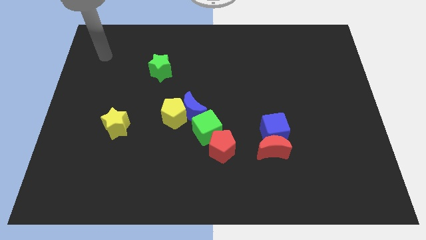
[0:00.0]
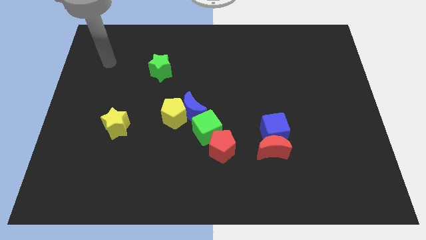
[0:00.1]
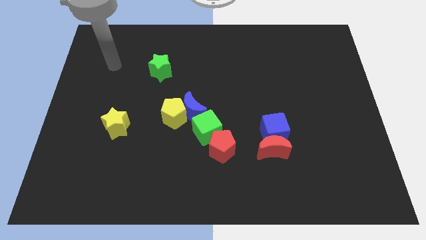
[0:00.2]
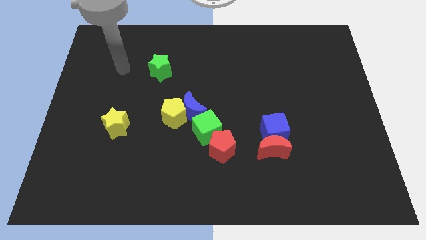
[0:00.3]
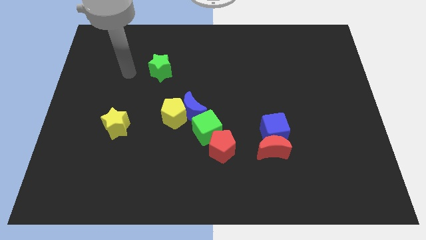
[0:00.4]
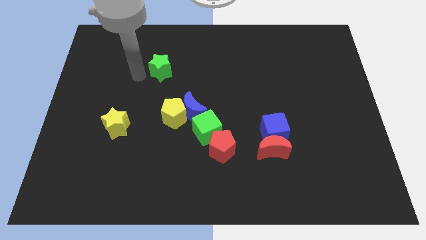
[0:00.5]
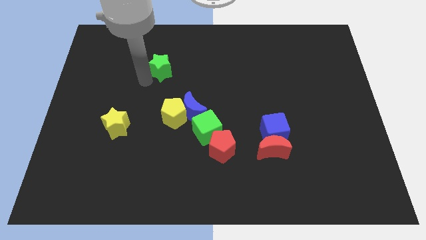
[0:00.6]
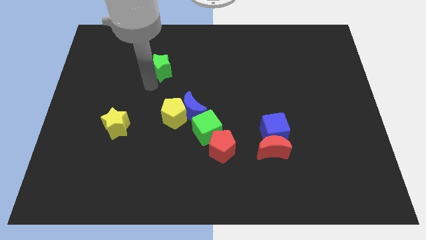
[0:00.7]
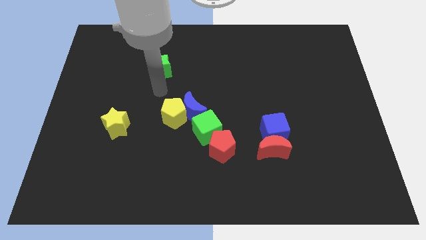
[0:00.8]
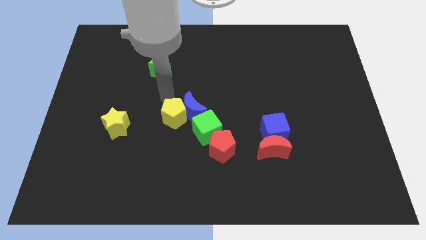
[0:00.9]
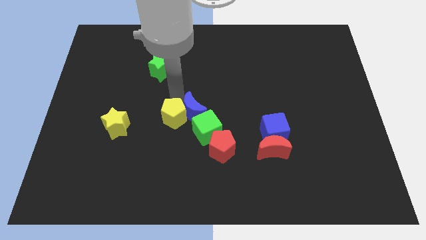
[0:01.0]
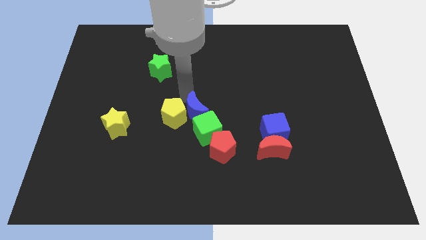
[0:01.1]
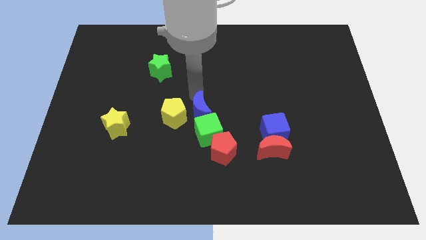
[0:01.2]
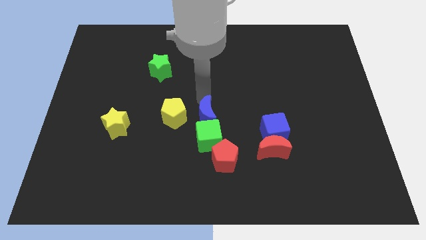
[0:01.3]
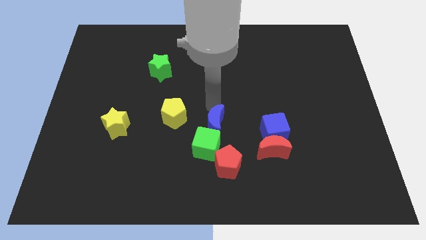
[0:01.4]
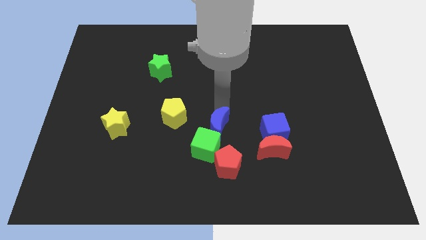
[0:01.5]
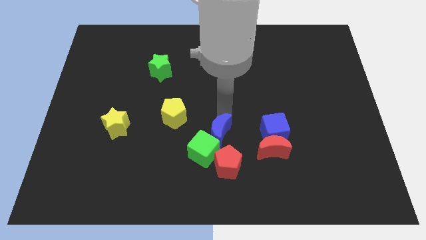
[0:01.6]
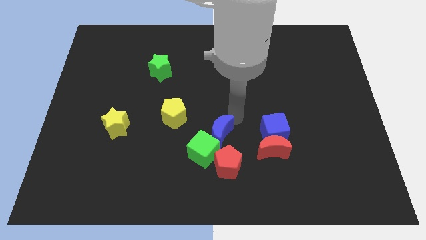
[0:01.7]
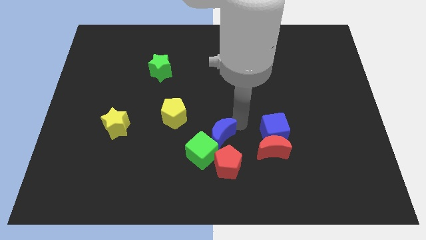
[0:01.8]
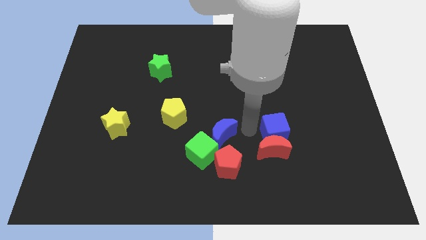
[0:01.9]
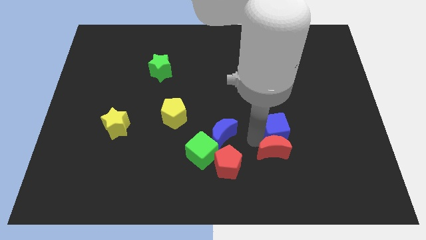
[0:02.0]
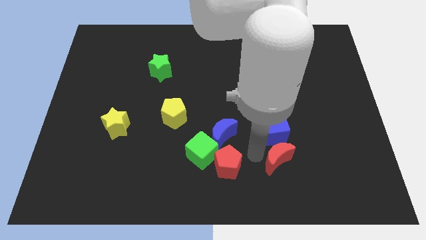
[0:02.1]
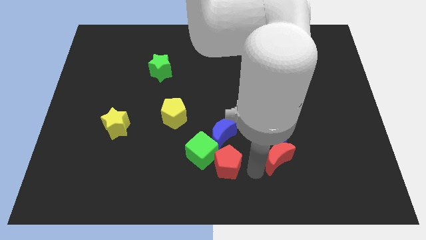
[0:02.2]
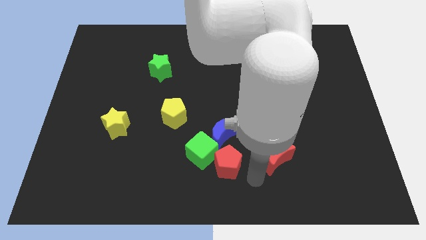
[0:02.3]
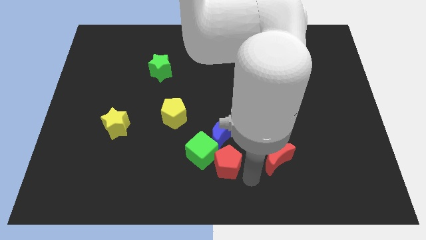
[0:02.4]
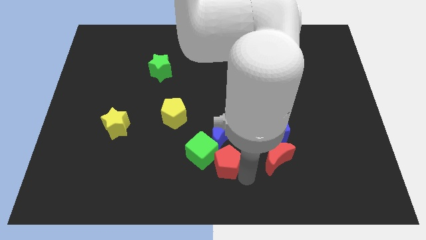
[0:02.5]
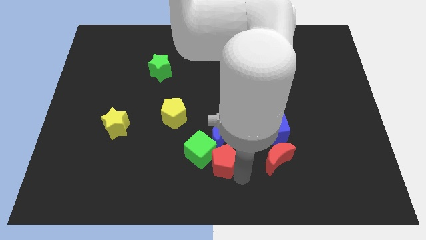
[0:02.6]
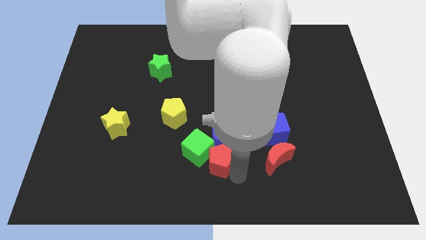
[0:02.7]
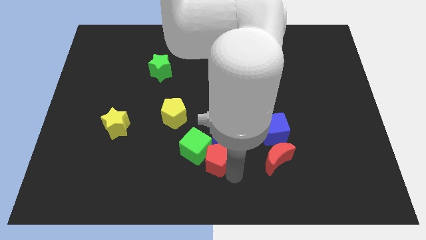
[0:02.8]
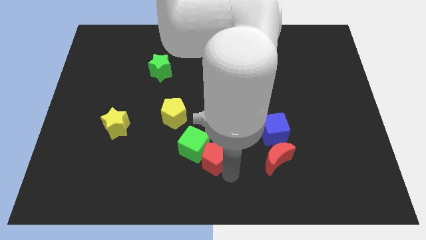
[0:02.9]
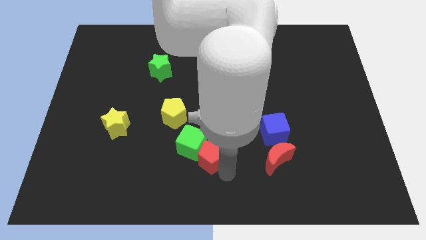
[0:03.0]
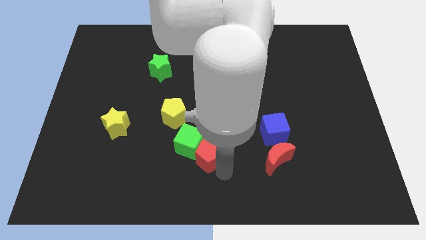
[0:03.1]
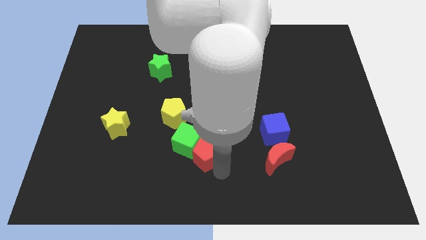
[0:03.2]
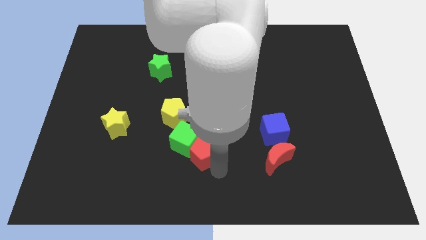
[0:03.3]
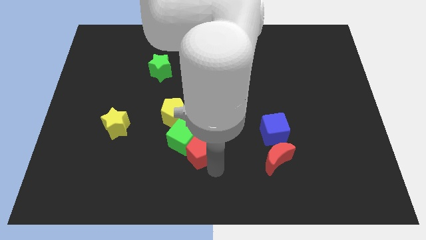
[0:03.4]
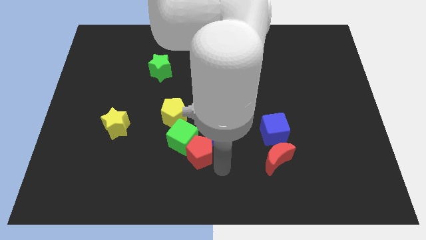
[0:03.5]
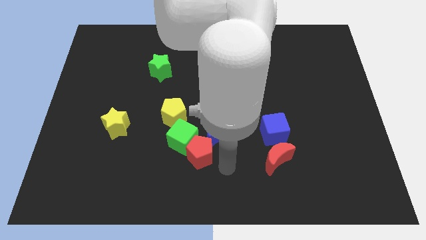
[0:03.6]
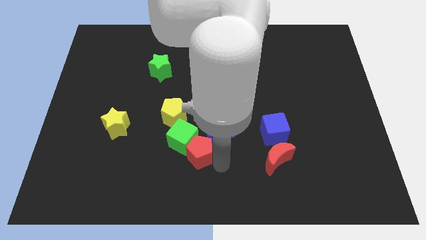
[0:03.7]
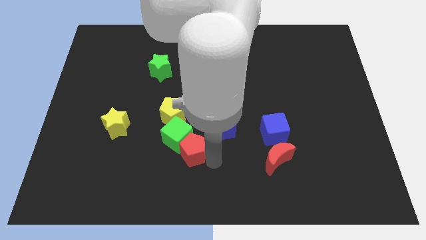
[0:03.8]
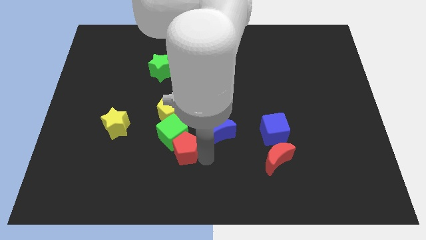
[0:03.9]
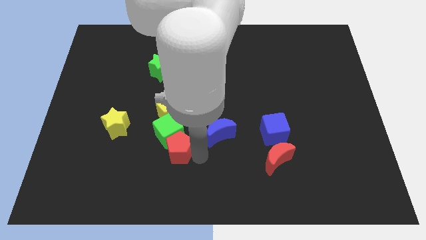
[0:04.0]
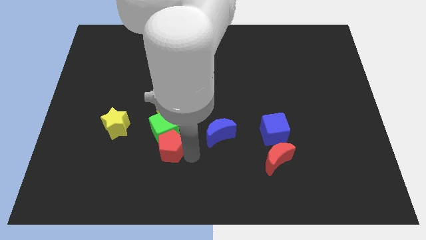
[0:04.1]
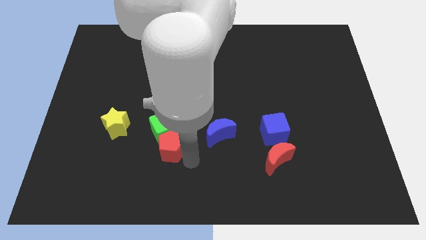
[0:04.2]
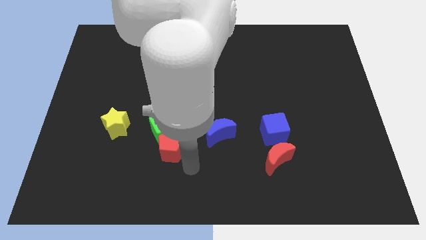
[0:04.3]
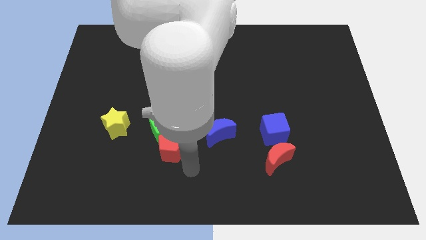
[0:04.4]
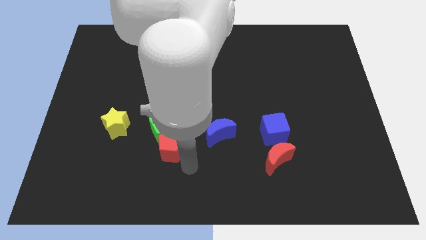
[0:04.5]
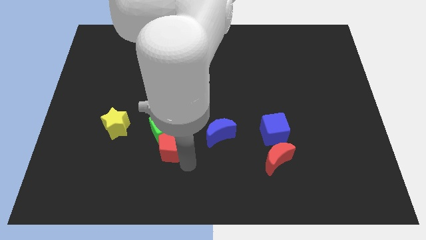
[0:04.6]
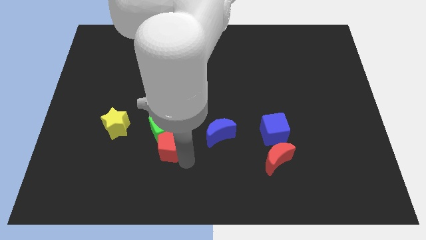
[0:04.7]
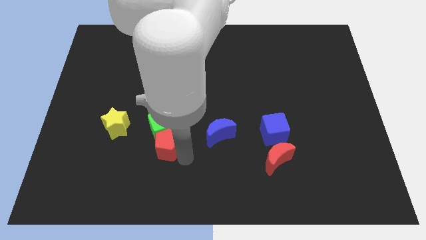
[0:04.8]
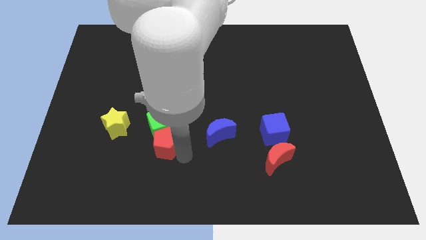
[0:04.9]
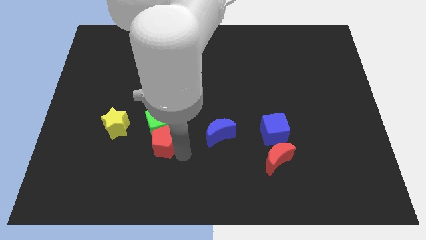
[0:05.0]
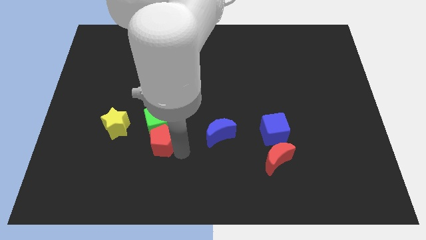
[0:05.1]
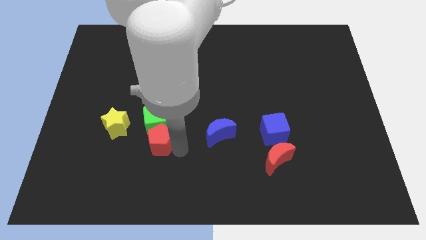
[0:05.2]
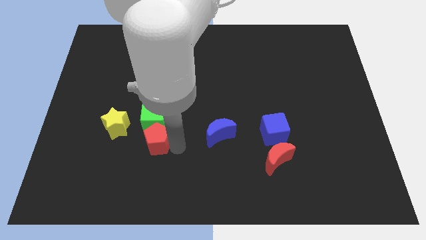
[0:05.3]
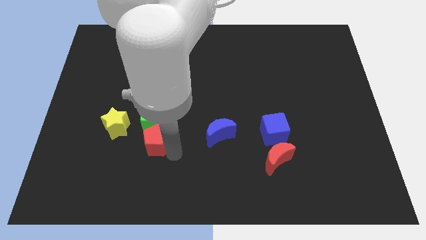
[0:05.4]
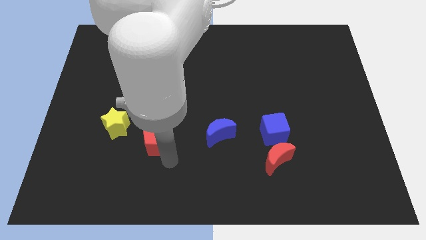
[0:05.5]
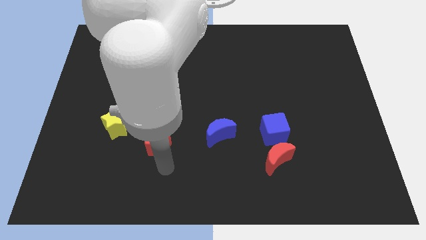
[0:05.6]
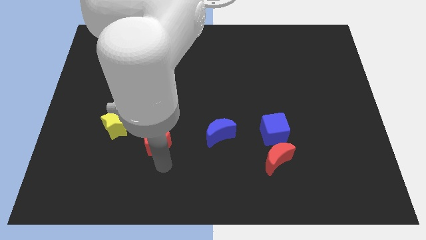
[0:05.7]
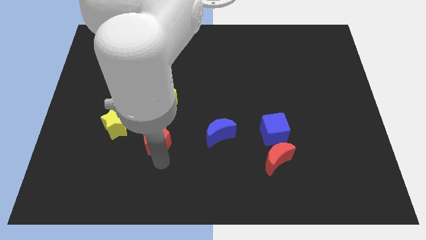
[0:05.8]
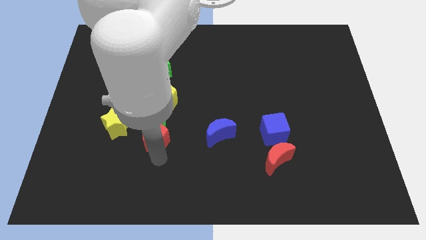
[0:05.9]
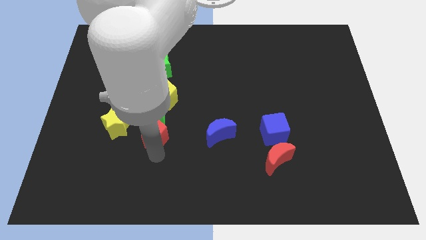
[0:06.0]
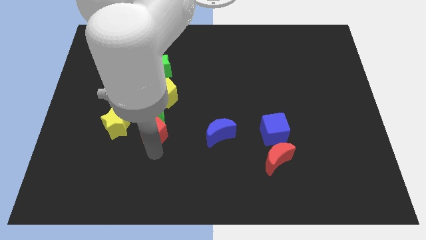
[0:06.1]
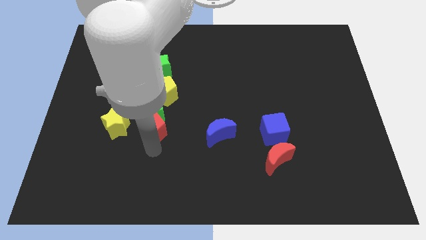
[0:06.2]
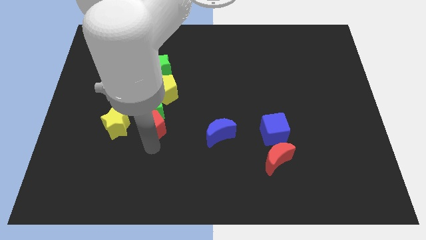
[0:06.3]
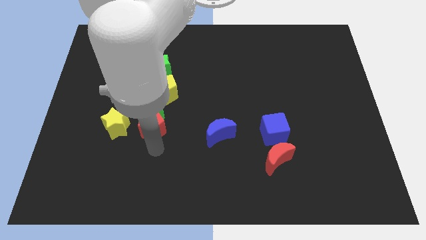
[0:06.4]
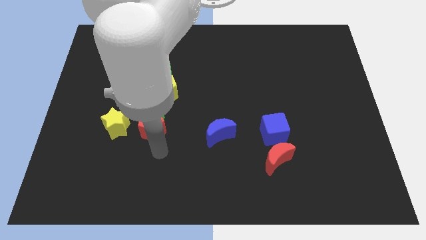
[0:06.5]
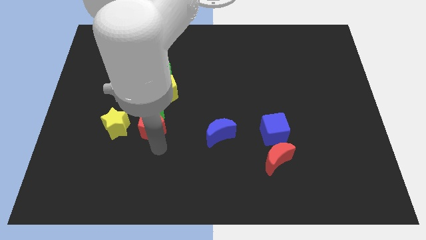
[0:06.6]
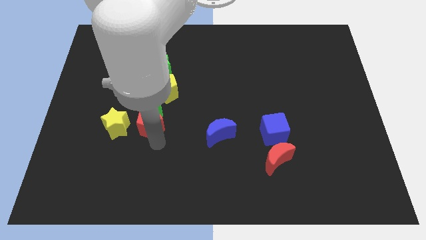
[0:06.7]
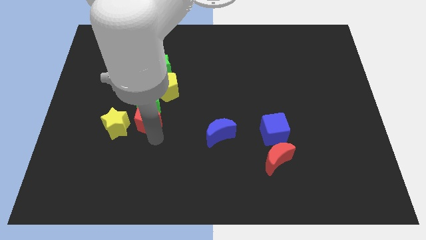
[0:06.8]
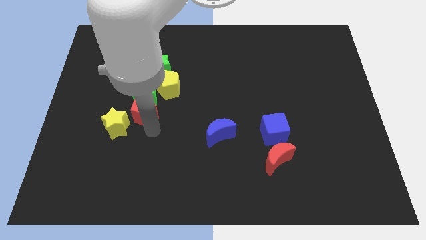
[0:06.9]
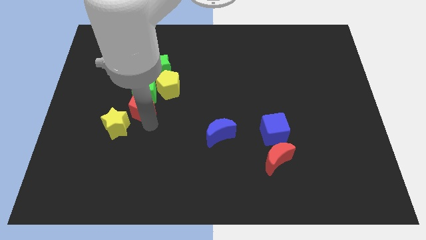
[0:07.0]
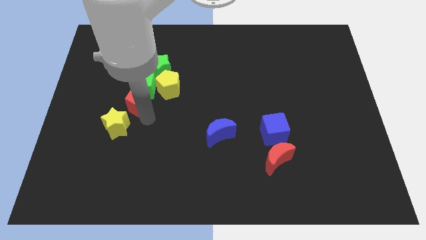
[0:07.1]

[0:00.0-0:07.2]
push the red pentagon up and to the left diagonally

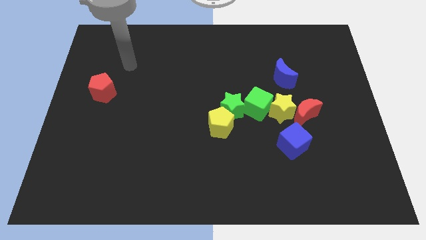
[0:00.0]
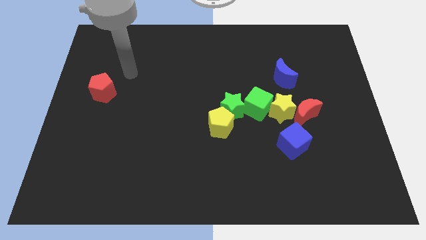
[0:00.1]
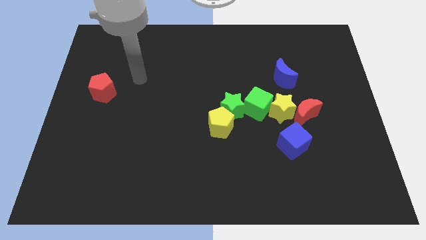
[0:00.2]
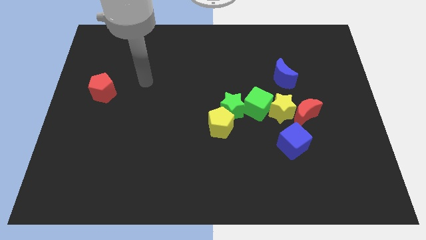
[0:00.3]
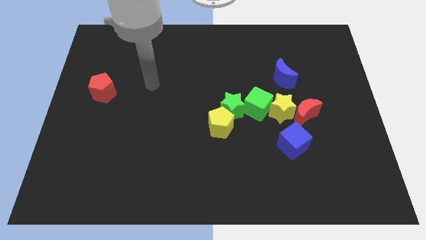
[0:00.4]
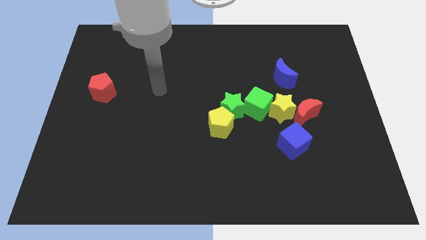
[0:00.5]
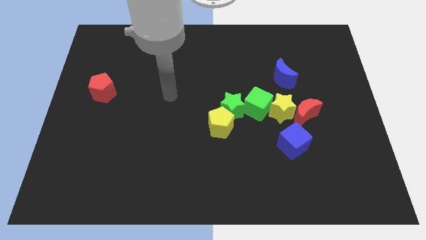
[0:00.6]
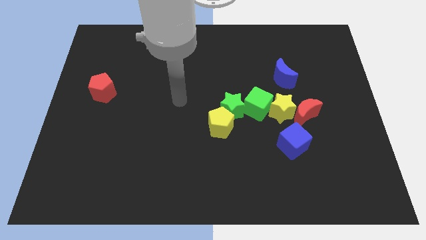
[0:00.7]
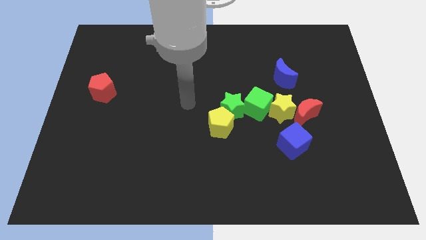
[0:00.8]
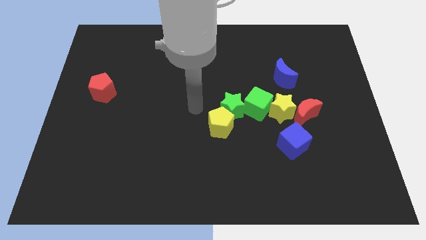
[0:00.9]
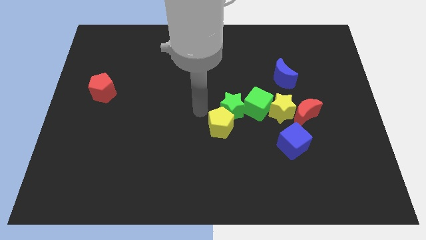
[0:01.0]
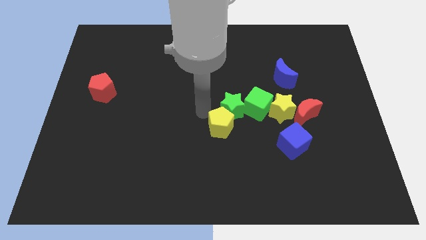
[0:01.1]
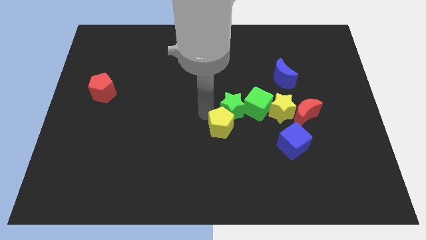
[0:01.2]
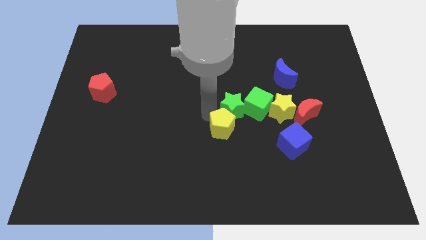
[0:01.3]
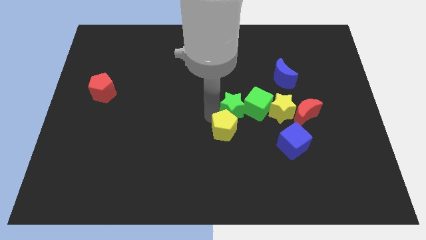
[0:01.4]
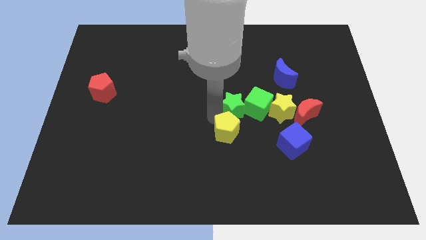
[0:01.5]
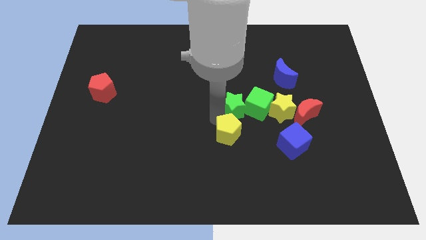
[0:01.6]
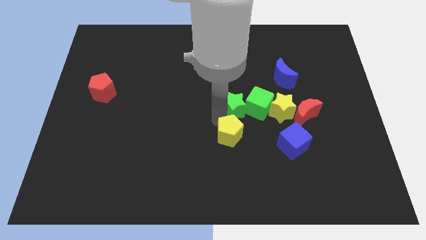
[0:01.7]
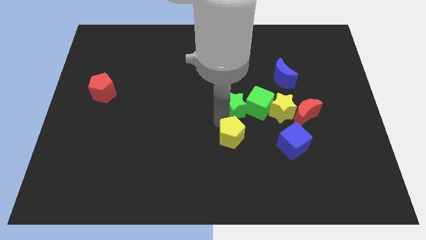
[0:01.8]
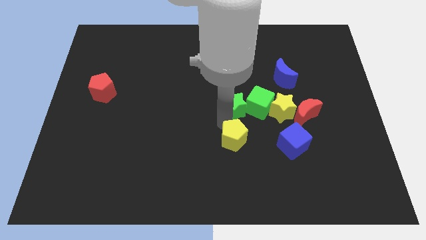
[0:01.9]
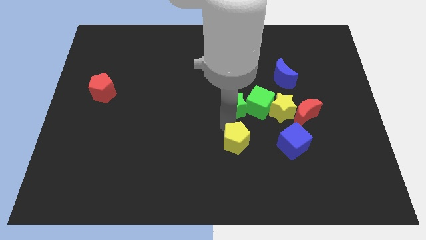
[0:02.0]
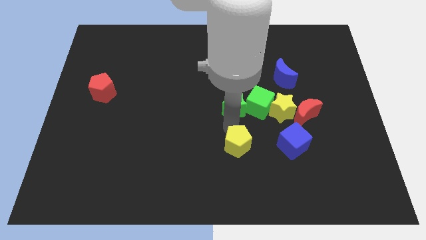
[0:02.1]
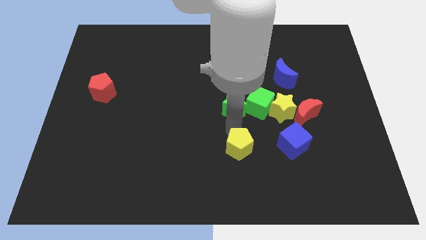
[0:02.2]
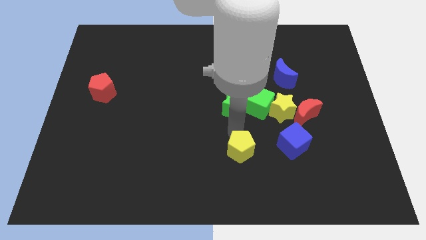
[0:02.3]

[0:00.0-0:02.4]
slide the yellow pentagon a little down and then right
